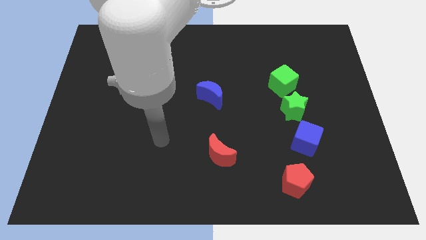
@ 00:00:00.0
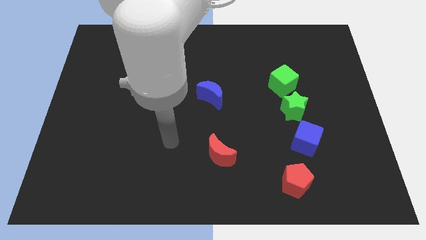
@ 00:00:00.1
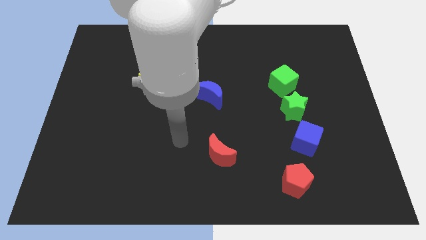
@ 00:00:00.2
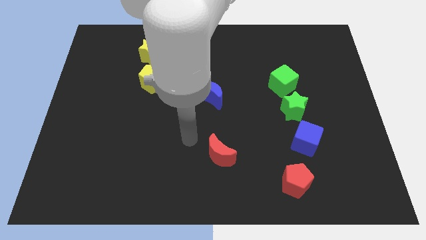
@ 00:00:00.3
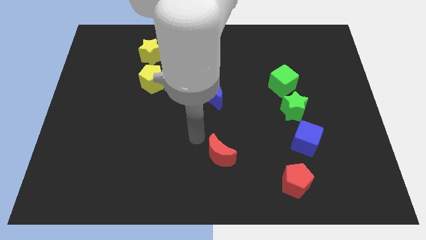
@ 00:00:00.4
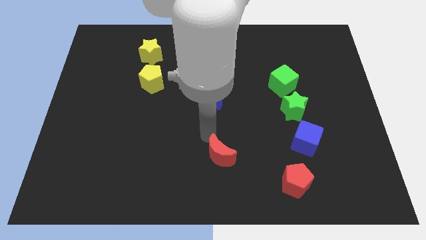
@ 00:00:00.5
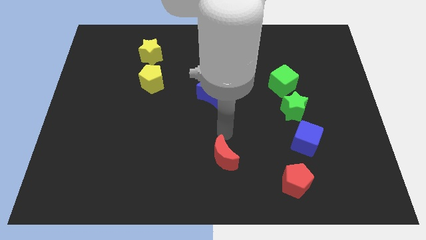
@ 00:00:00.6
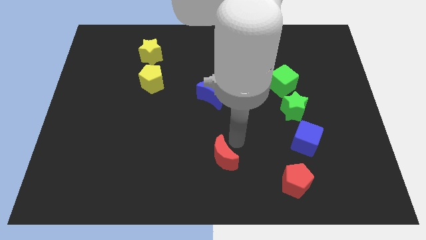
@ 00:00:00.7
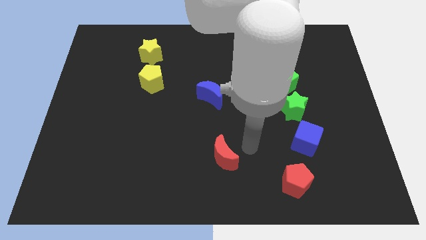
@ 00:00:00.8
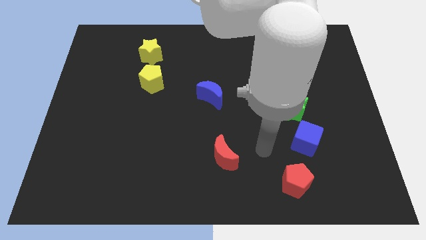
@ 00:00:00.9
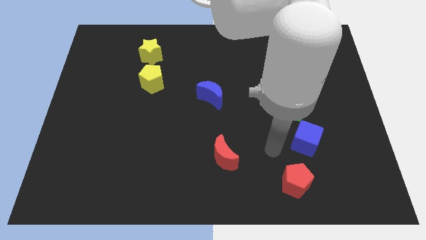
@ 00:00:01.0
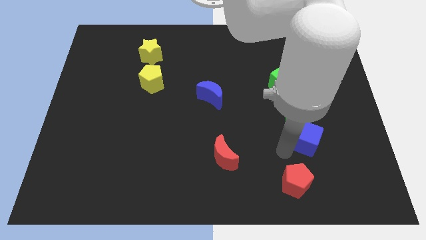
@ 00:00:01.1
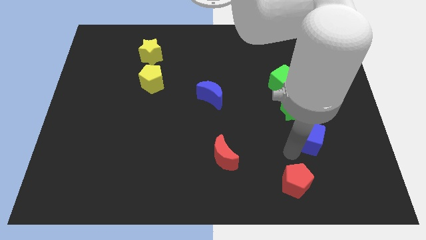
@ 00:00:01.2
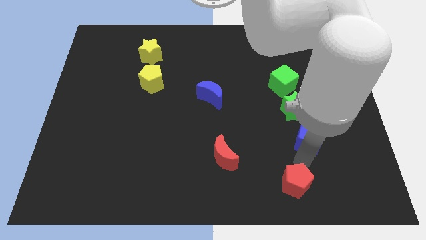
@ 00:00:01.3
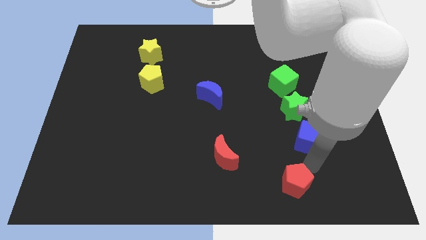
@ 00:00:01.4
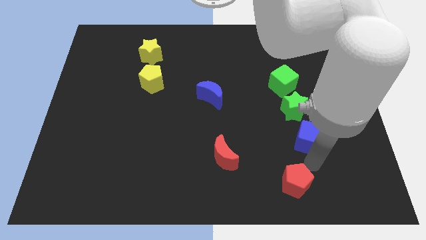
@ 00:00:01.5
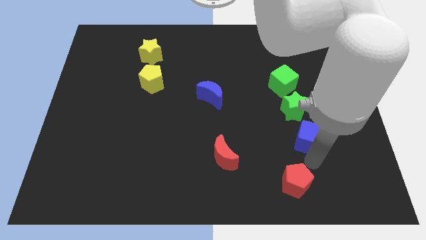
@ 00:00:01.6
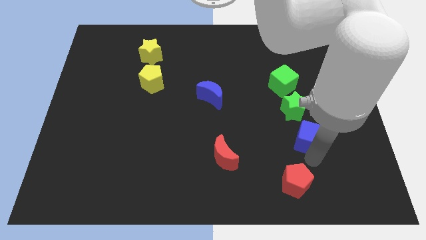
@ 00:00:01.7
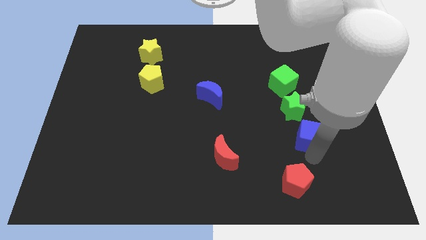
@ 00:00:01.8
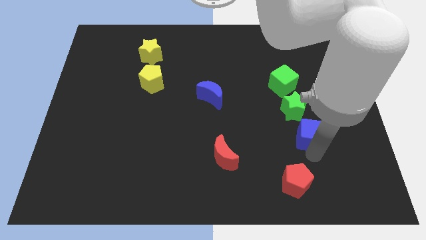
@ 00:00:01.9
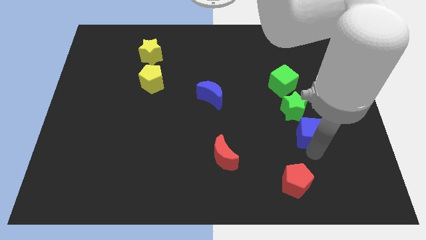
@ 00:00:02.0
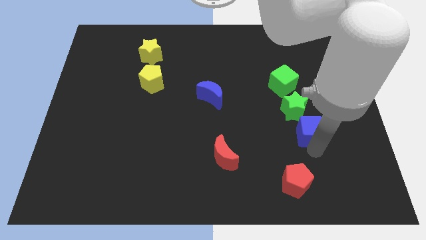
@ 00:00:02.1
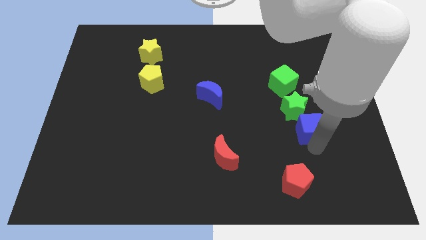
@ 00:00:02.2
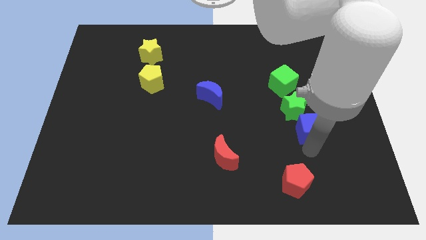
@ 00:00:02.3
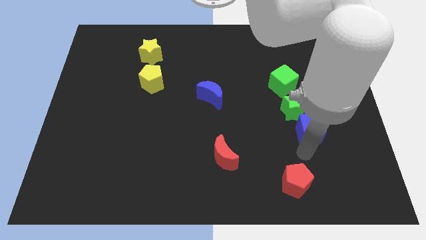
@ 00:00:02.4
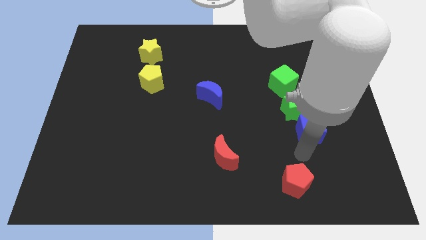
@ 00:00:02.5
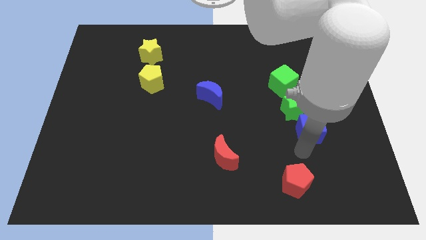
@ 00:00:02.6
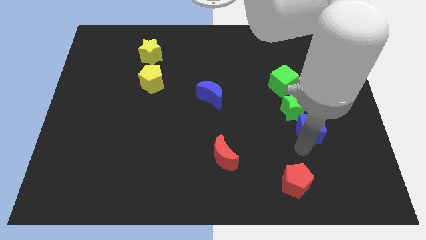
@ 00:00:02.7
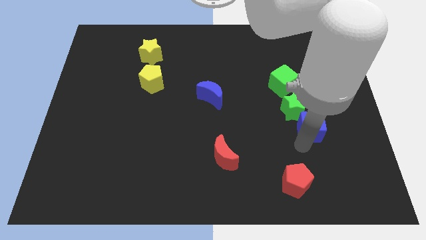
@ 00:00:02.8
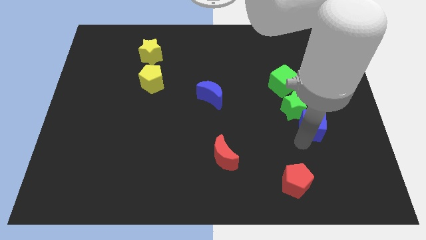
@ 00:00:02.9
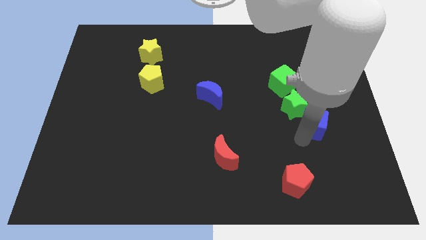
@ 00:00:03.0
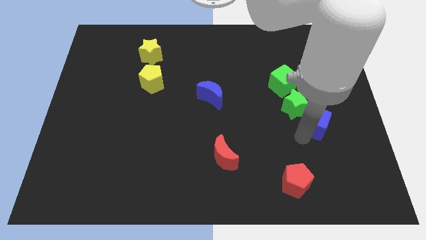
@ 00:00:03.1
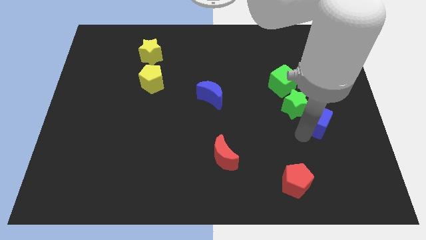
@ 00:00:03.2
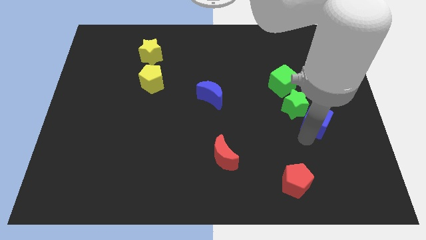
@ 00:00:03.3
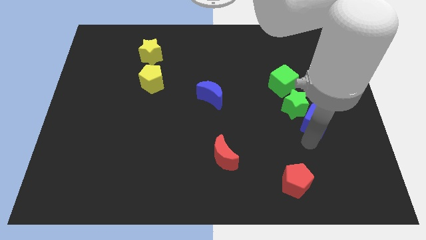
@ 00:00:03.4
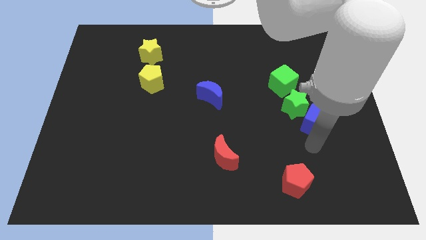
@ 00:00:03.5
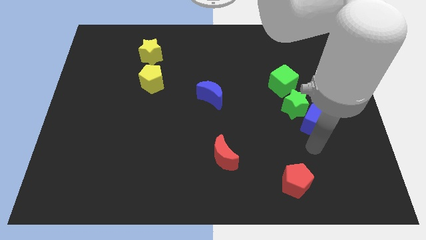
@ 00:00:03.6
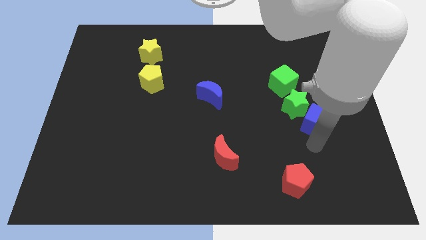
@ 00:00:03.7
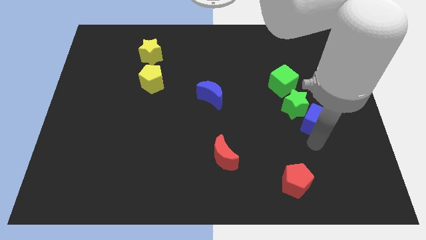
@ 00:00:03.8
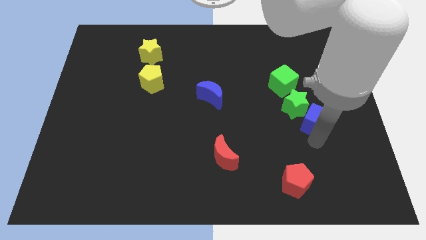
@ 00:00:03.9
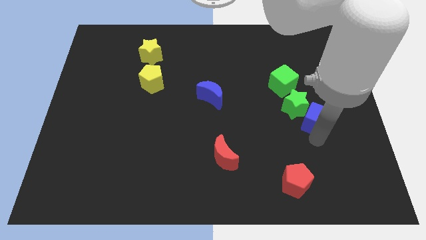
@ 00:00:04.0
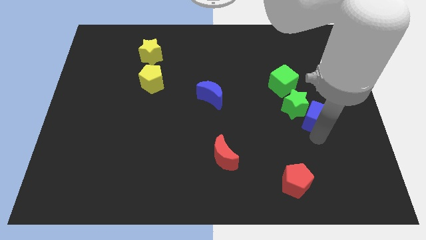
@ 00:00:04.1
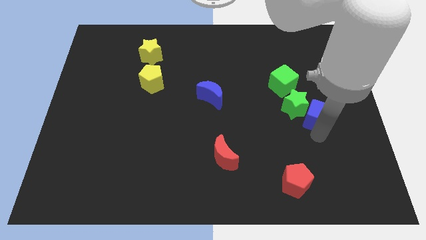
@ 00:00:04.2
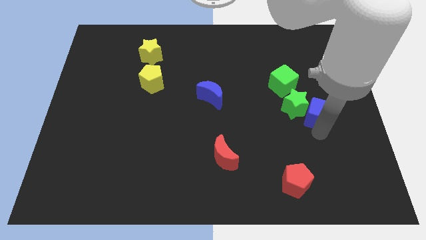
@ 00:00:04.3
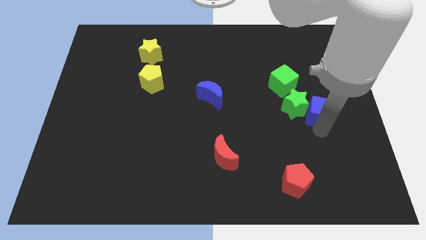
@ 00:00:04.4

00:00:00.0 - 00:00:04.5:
move the blue cube a bit upwards

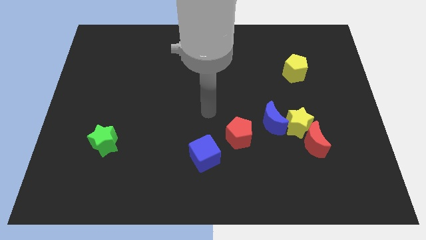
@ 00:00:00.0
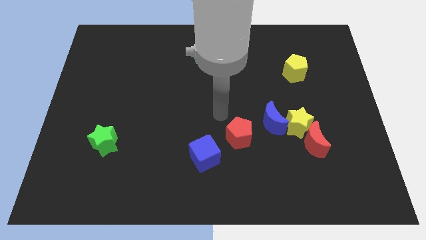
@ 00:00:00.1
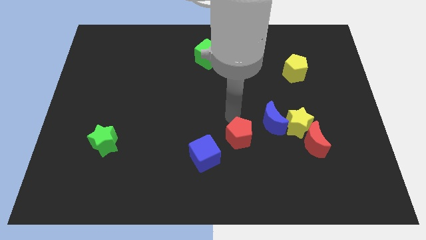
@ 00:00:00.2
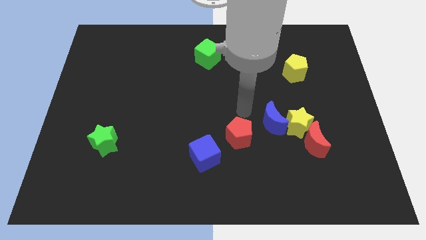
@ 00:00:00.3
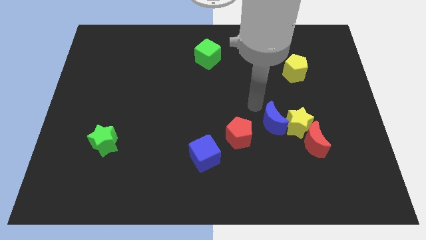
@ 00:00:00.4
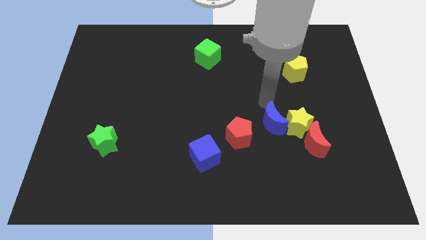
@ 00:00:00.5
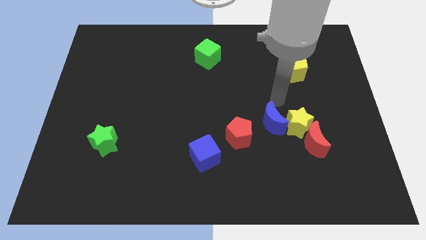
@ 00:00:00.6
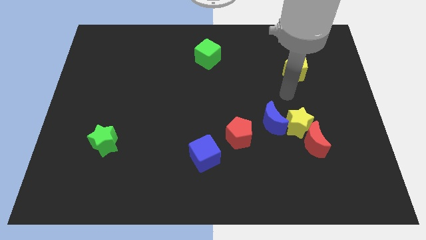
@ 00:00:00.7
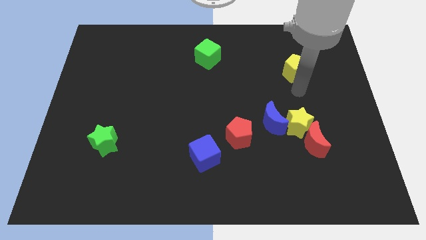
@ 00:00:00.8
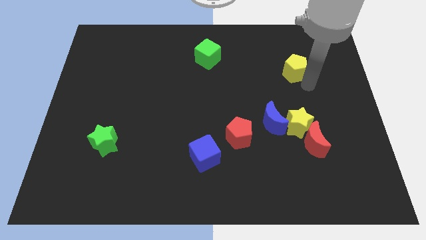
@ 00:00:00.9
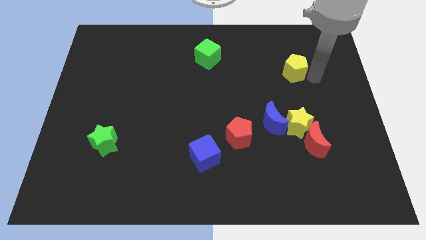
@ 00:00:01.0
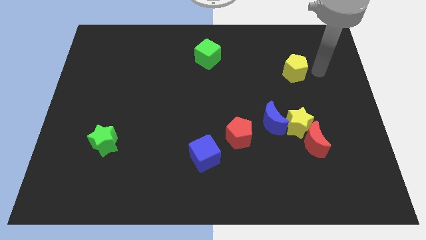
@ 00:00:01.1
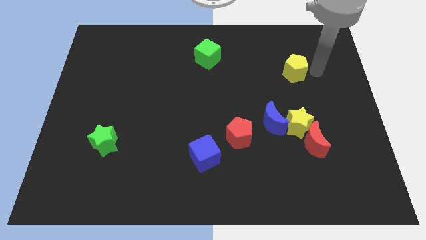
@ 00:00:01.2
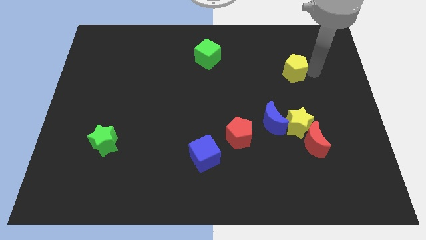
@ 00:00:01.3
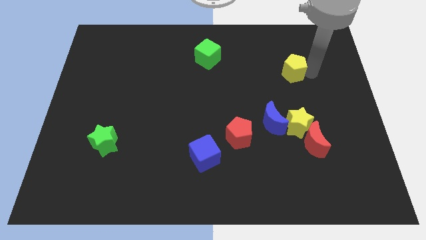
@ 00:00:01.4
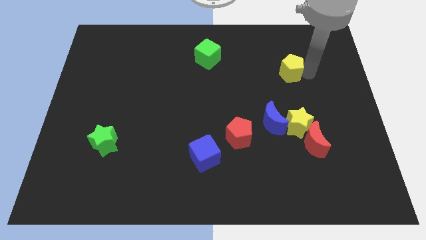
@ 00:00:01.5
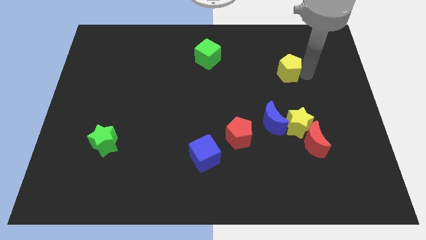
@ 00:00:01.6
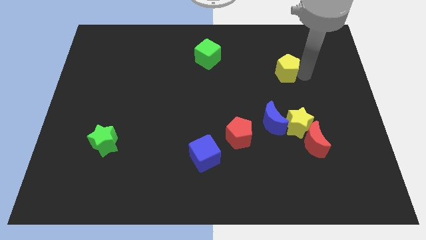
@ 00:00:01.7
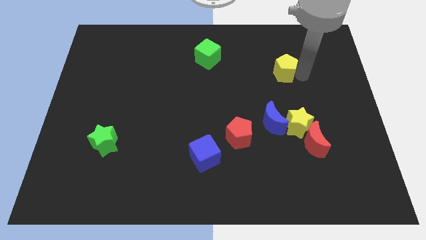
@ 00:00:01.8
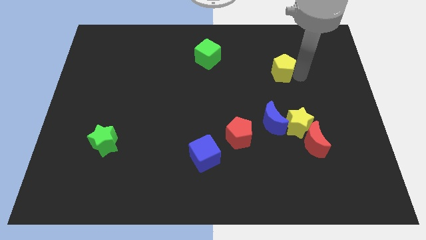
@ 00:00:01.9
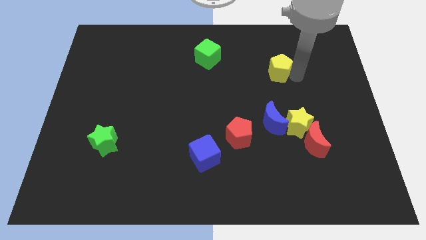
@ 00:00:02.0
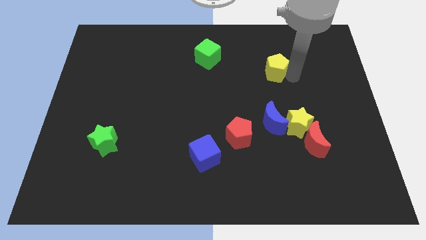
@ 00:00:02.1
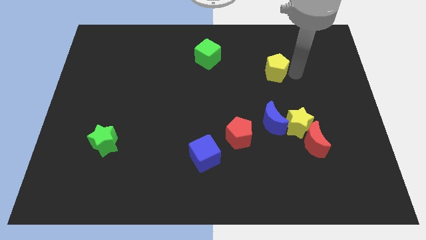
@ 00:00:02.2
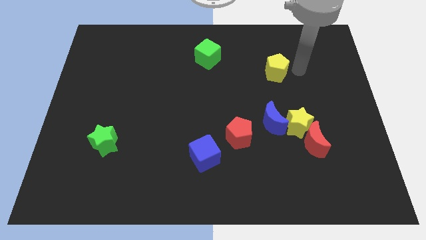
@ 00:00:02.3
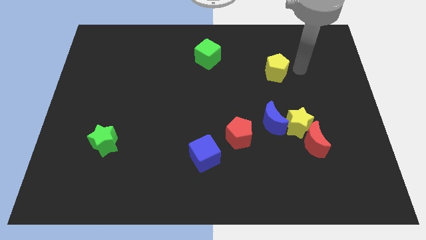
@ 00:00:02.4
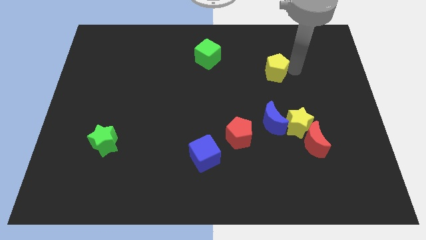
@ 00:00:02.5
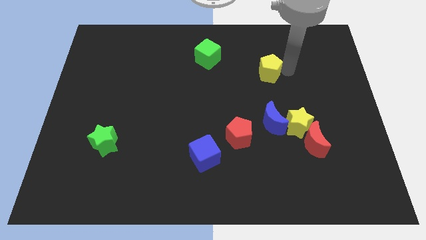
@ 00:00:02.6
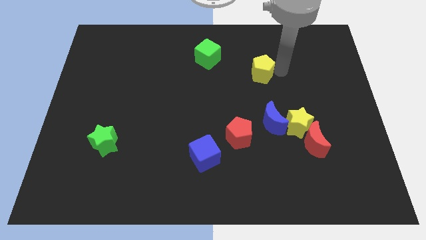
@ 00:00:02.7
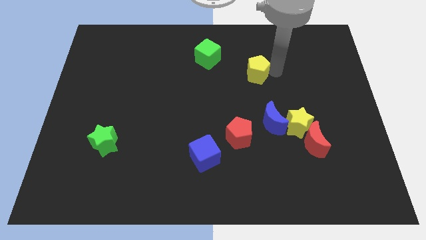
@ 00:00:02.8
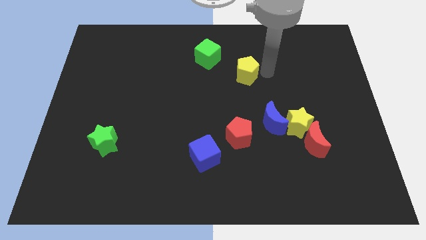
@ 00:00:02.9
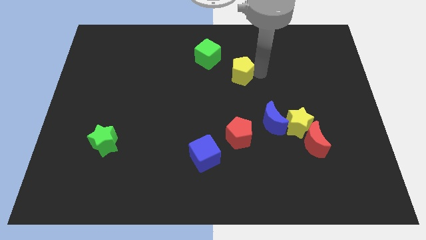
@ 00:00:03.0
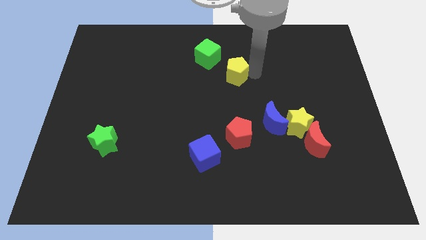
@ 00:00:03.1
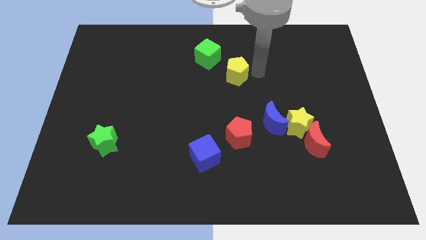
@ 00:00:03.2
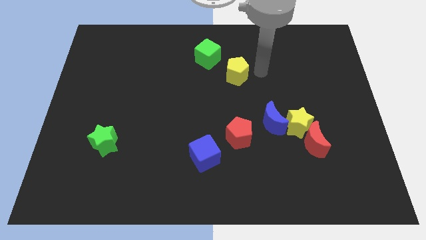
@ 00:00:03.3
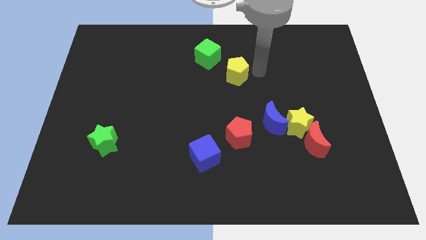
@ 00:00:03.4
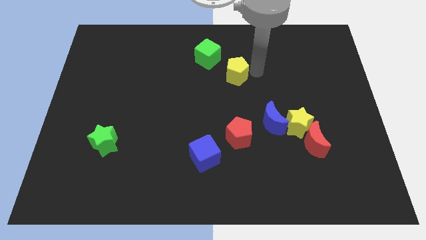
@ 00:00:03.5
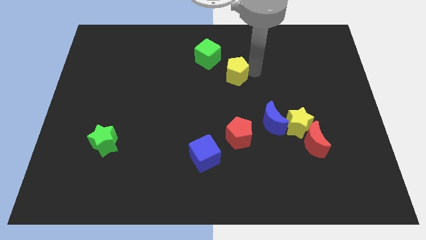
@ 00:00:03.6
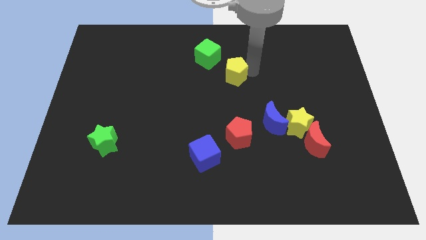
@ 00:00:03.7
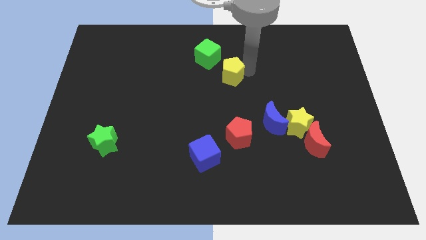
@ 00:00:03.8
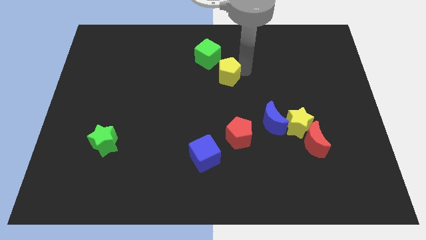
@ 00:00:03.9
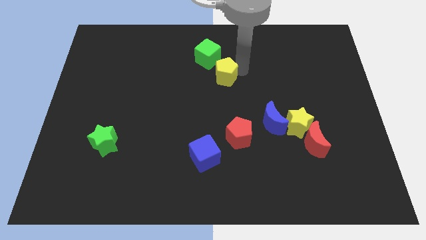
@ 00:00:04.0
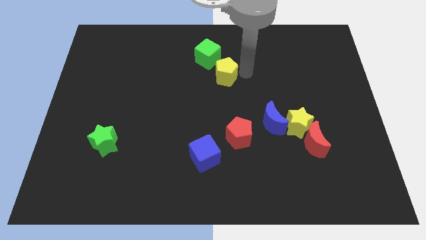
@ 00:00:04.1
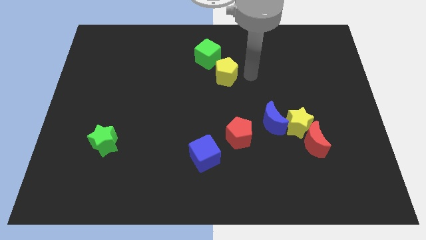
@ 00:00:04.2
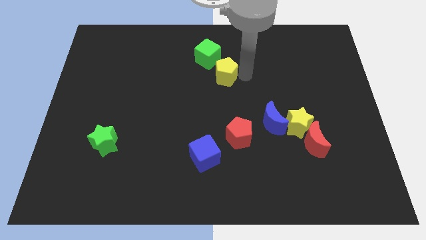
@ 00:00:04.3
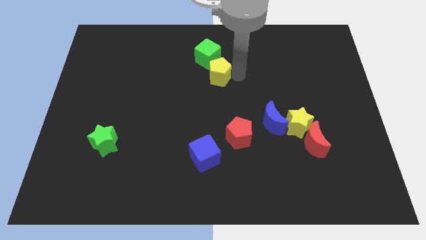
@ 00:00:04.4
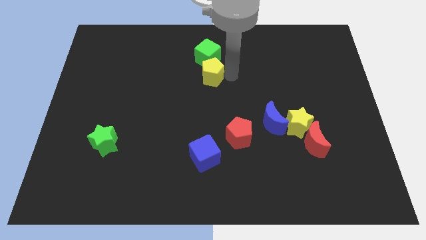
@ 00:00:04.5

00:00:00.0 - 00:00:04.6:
slide the yellow pentagon left
